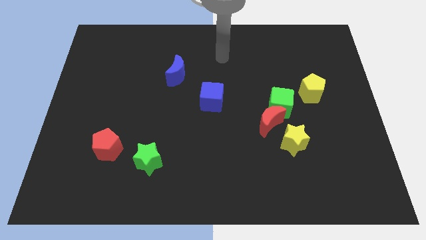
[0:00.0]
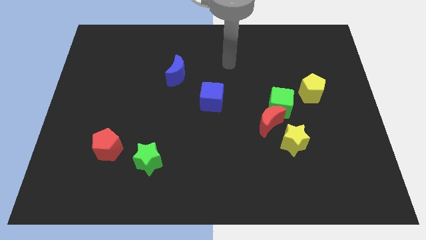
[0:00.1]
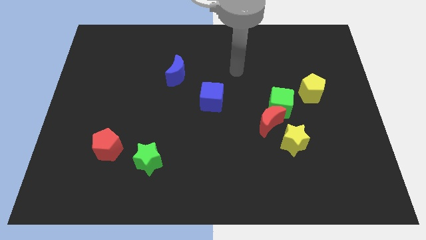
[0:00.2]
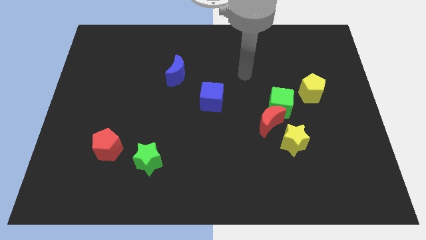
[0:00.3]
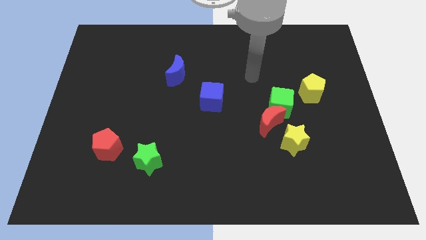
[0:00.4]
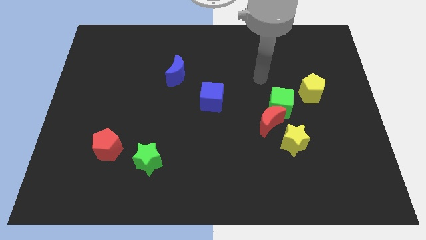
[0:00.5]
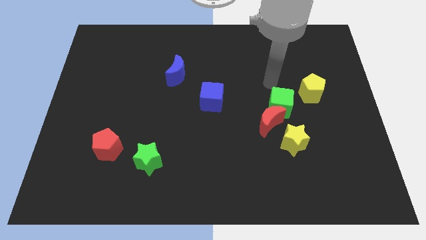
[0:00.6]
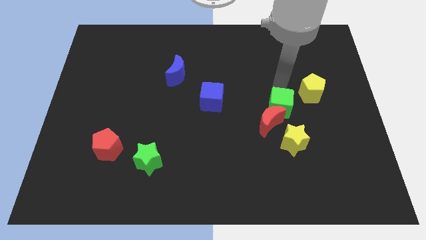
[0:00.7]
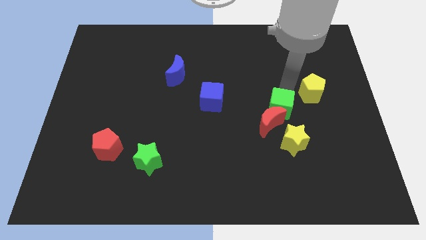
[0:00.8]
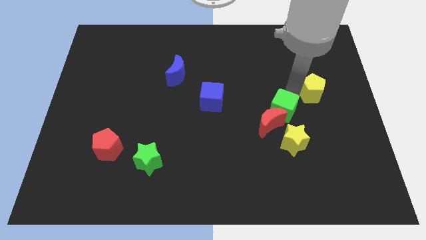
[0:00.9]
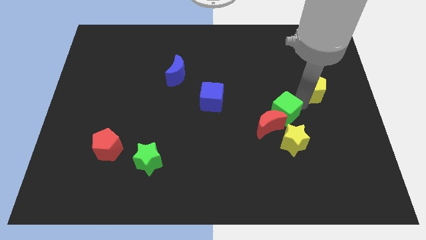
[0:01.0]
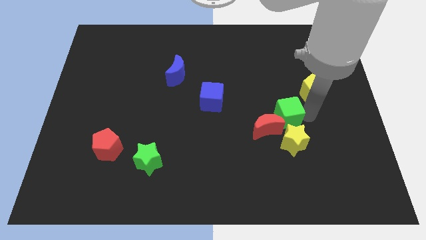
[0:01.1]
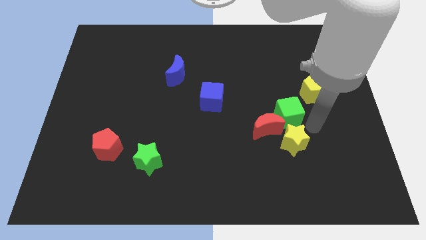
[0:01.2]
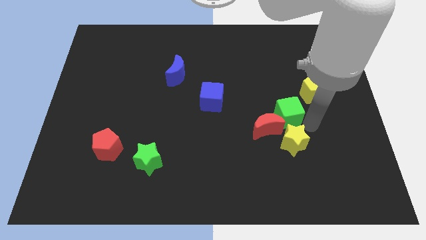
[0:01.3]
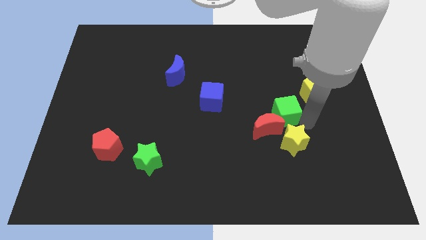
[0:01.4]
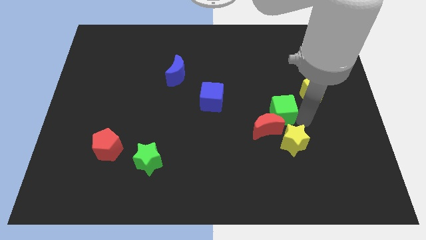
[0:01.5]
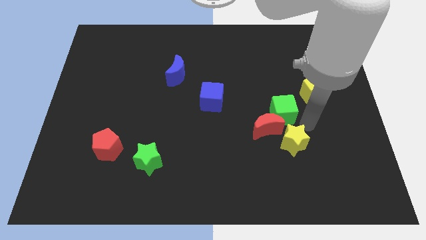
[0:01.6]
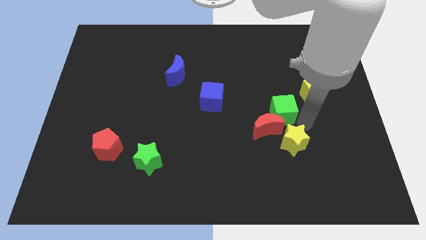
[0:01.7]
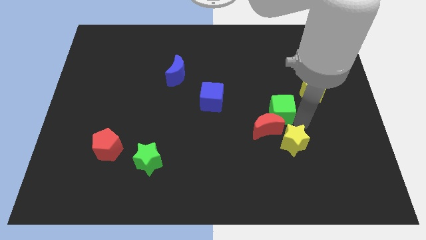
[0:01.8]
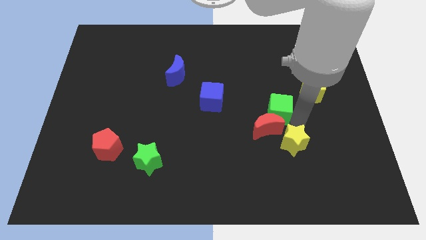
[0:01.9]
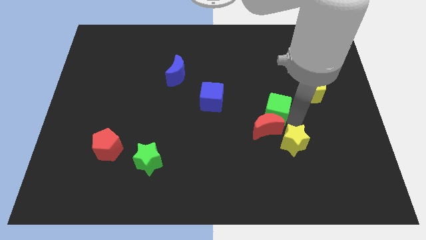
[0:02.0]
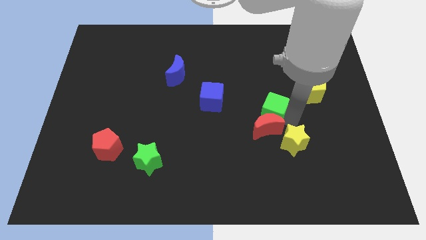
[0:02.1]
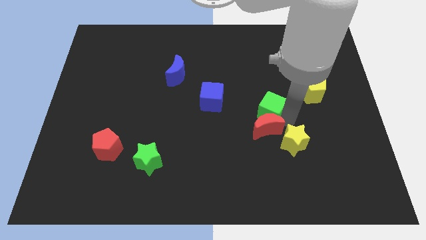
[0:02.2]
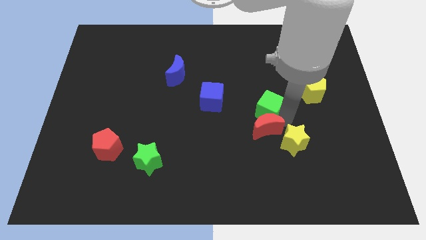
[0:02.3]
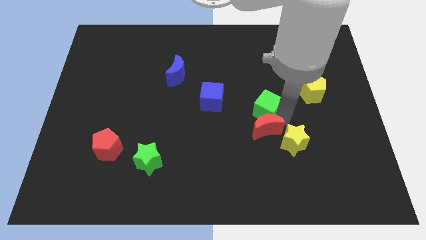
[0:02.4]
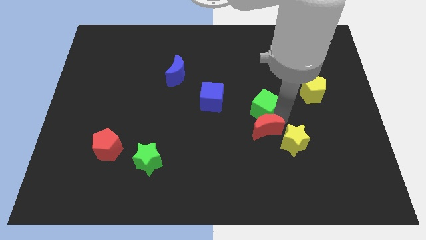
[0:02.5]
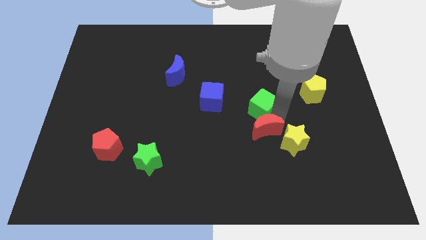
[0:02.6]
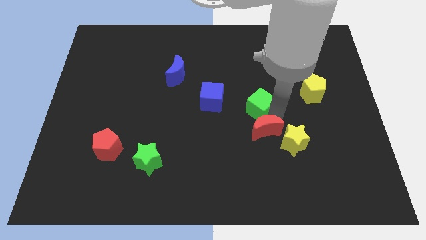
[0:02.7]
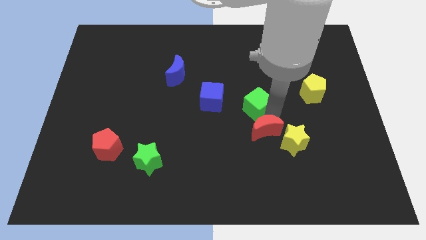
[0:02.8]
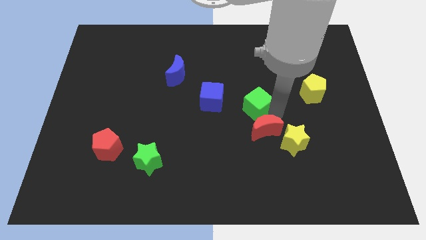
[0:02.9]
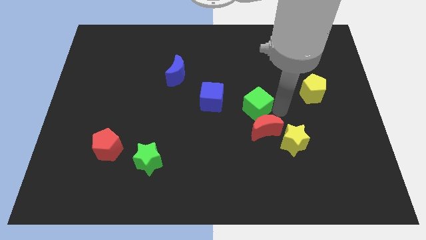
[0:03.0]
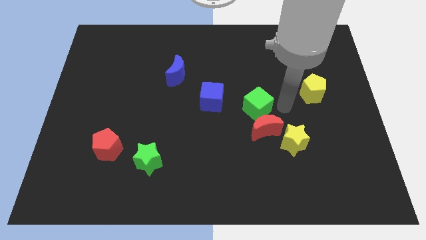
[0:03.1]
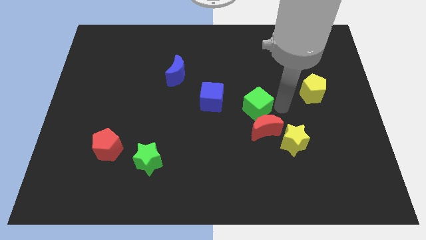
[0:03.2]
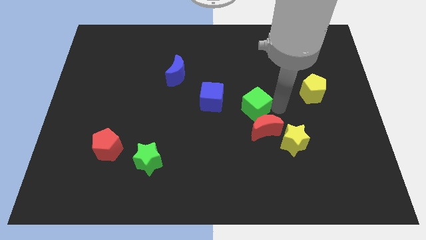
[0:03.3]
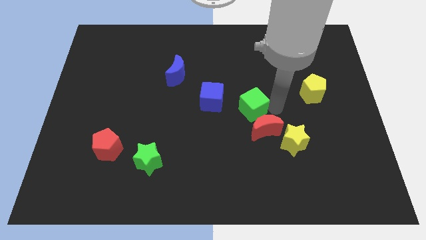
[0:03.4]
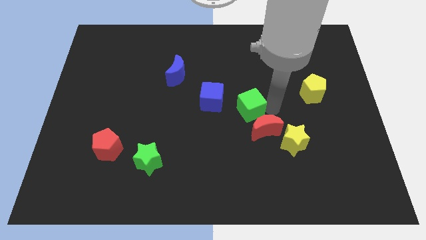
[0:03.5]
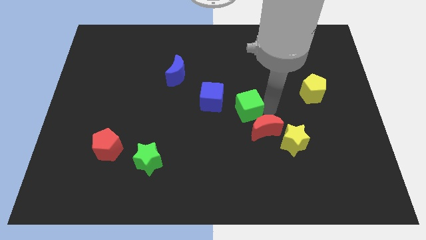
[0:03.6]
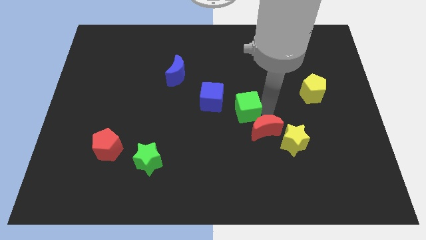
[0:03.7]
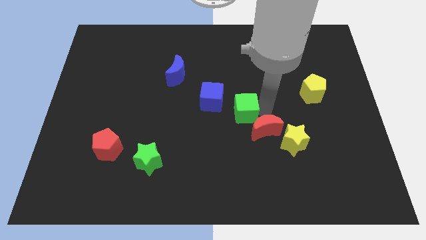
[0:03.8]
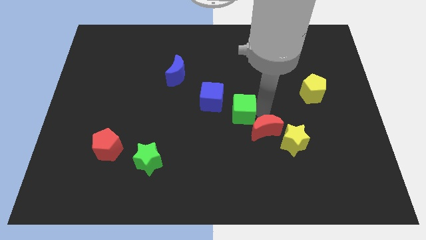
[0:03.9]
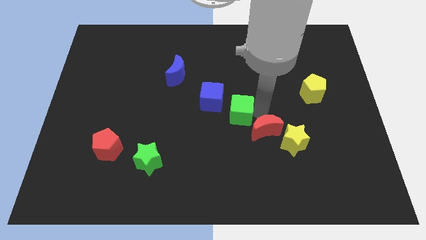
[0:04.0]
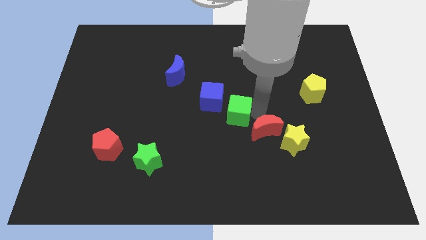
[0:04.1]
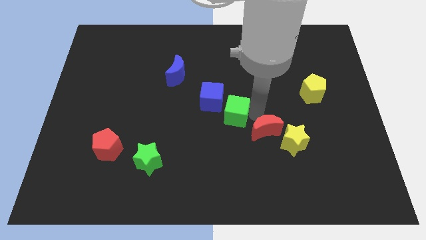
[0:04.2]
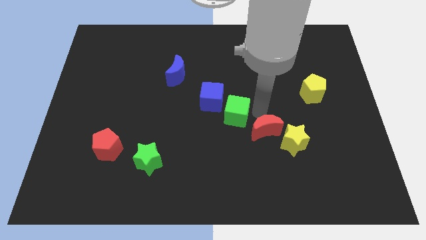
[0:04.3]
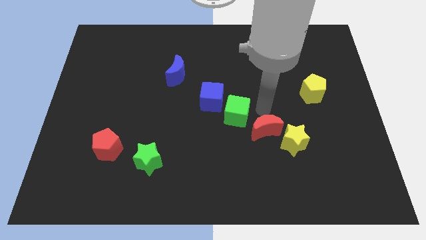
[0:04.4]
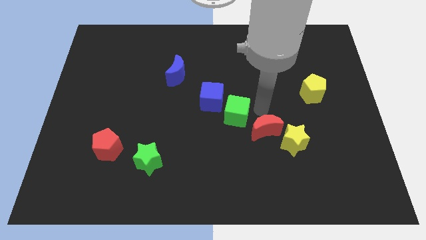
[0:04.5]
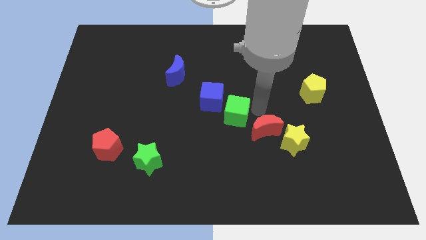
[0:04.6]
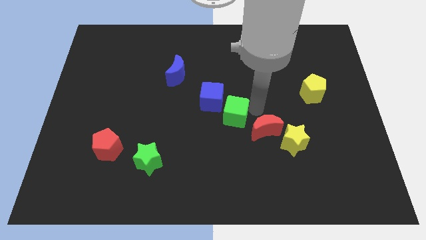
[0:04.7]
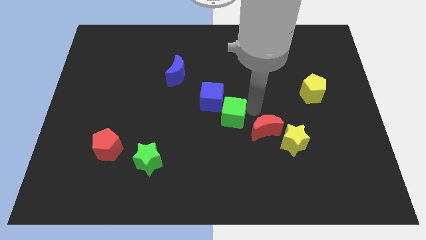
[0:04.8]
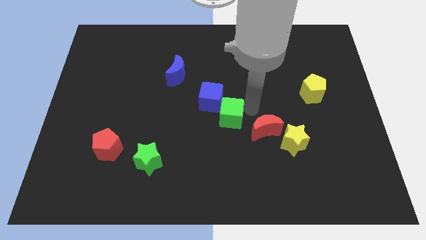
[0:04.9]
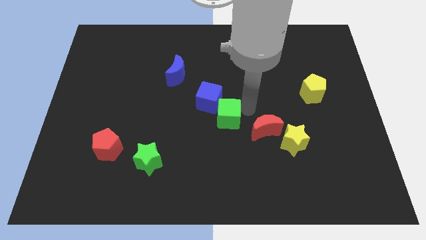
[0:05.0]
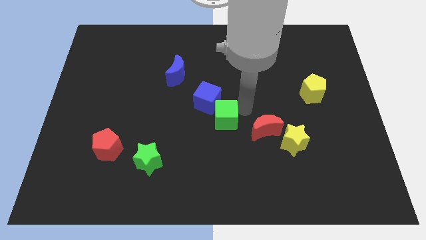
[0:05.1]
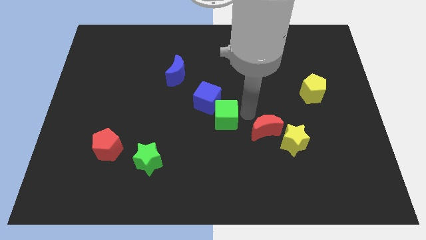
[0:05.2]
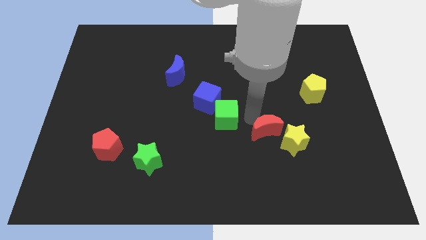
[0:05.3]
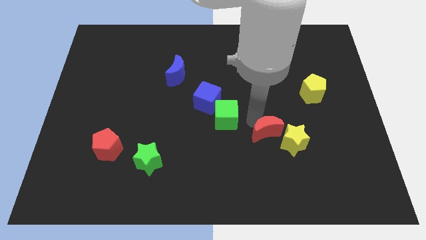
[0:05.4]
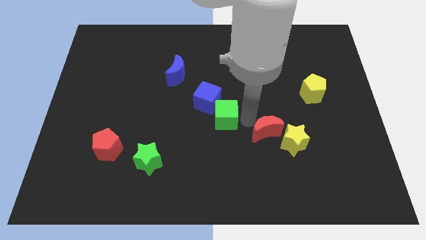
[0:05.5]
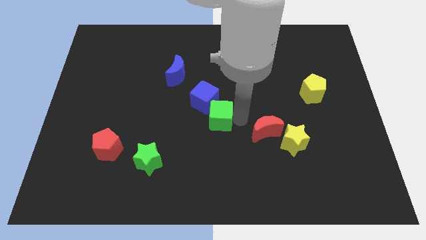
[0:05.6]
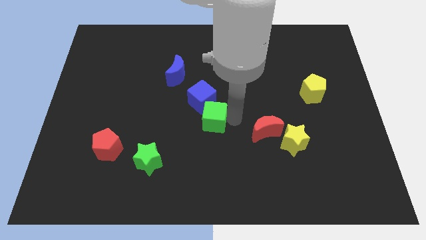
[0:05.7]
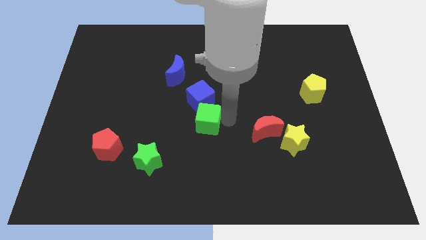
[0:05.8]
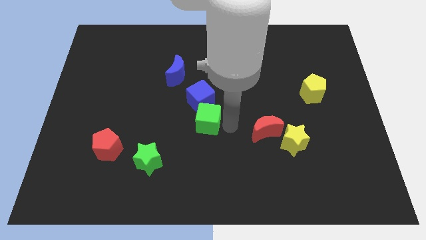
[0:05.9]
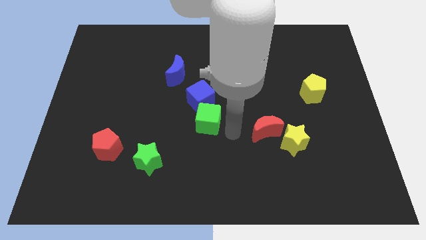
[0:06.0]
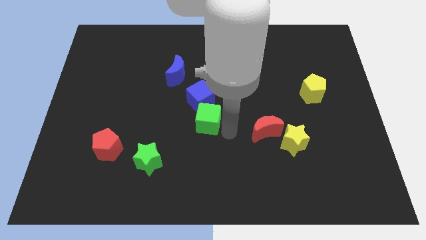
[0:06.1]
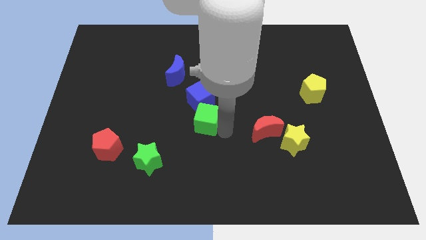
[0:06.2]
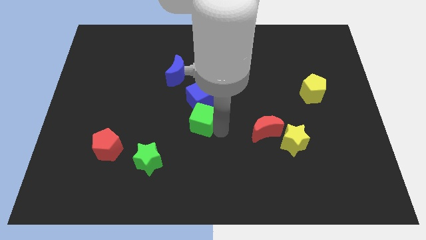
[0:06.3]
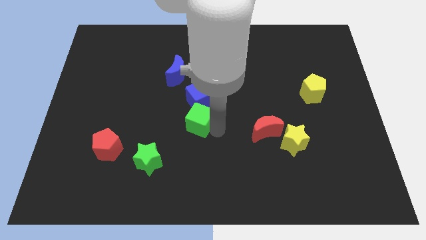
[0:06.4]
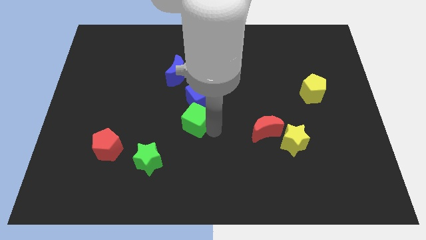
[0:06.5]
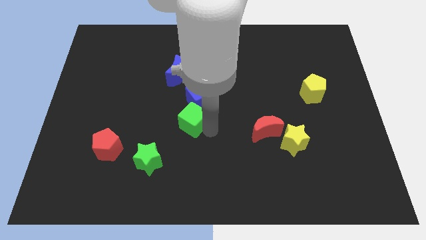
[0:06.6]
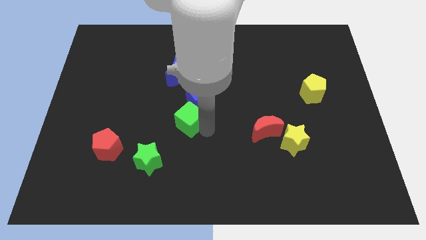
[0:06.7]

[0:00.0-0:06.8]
move the green cube left

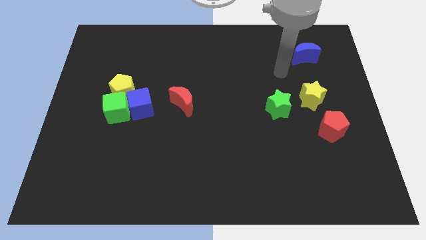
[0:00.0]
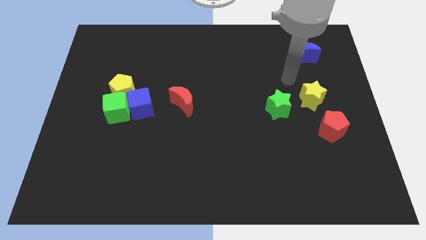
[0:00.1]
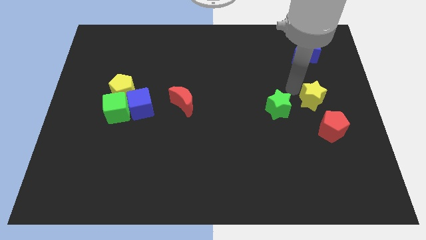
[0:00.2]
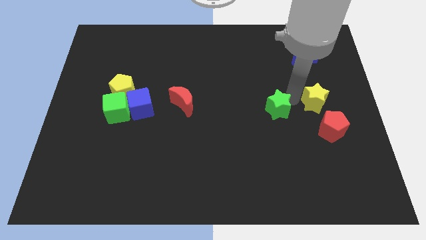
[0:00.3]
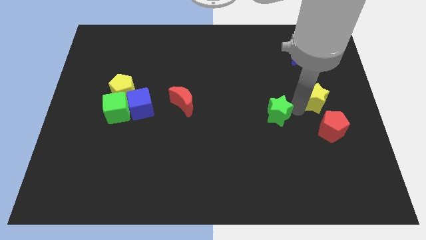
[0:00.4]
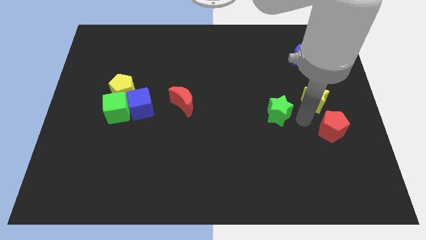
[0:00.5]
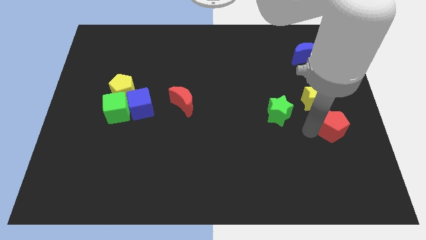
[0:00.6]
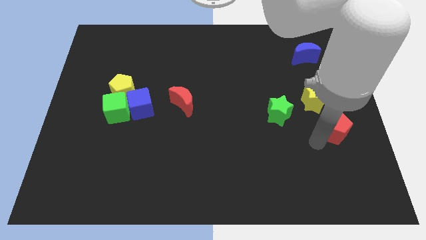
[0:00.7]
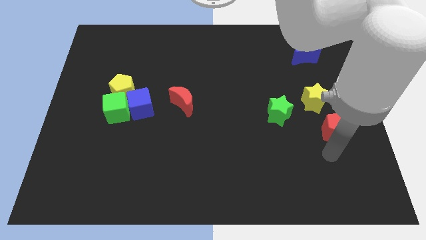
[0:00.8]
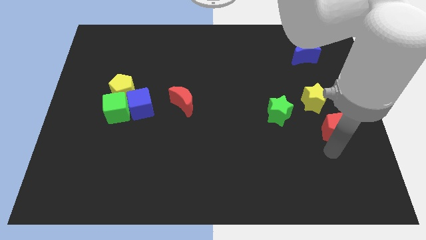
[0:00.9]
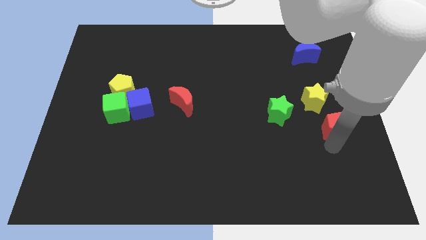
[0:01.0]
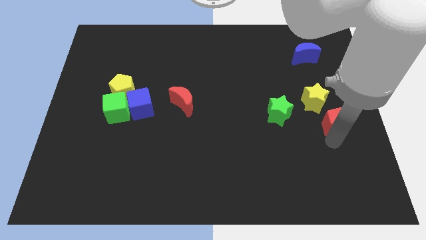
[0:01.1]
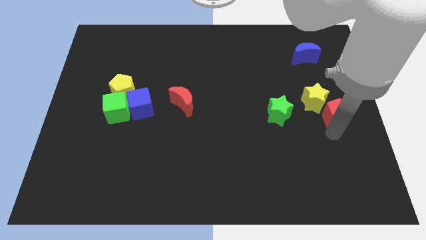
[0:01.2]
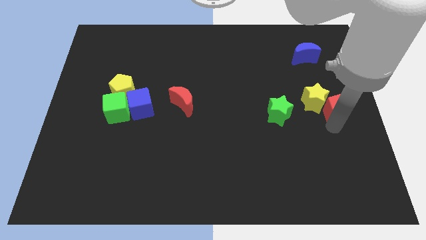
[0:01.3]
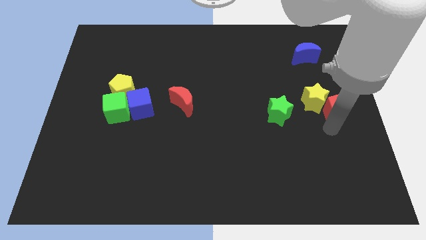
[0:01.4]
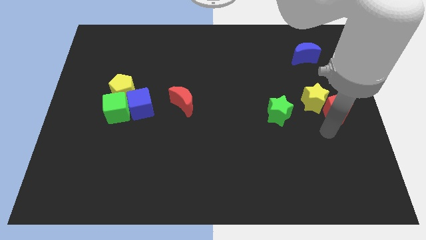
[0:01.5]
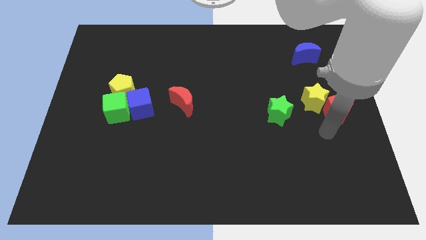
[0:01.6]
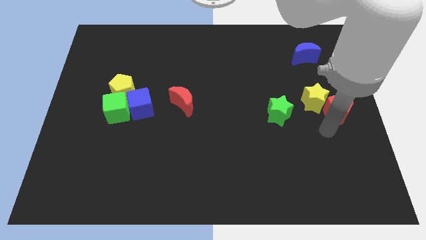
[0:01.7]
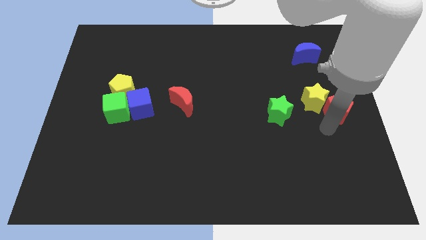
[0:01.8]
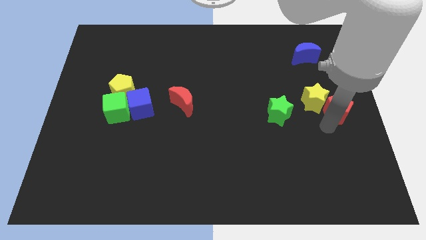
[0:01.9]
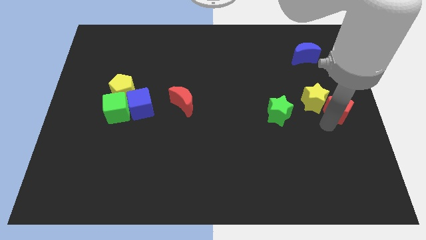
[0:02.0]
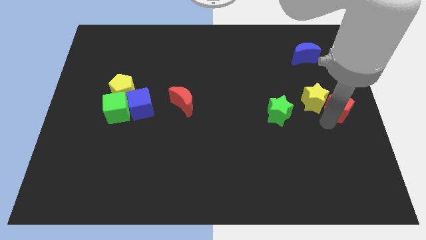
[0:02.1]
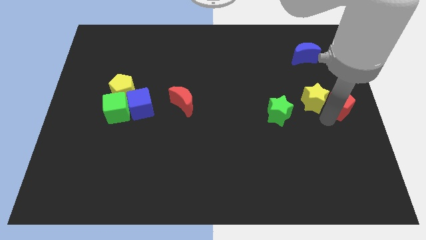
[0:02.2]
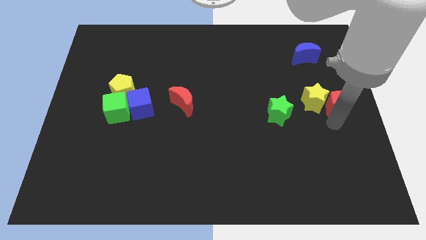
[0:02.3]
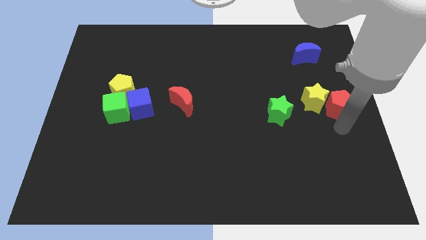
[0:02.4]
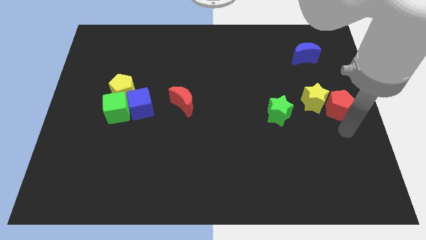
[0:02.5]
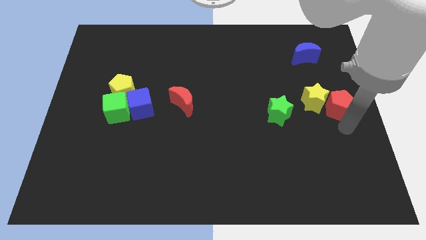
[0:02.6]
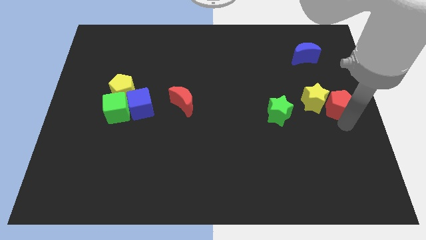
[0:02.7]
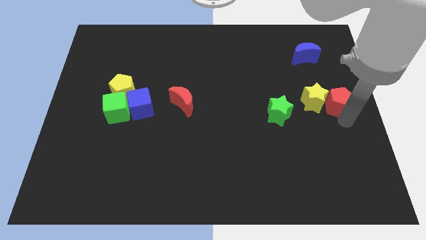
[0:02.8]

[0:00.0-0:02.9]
slightly slide the red pentagon upwards
